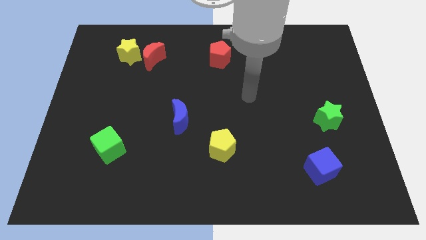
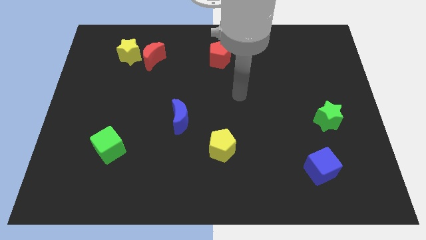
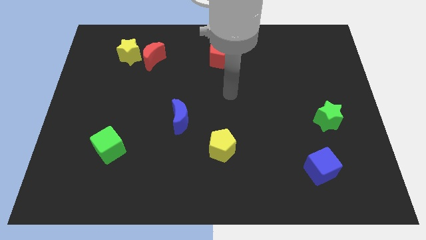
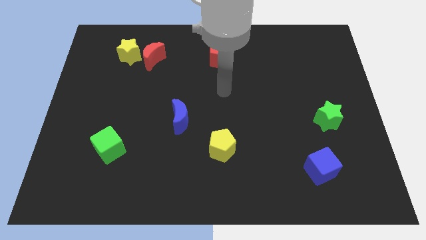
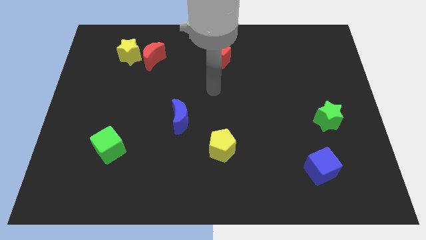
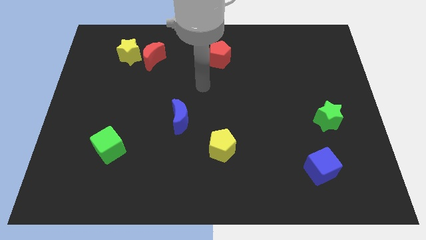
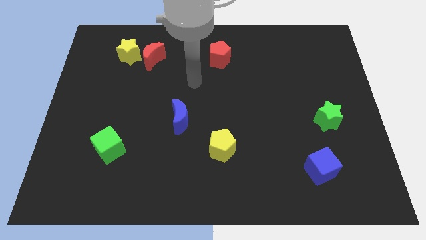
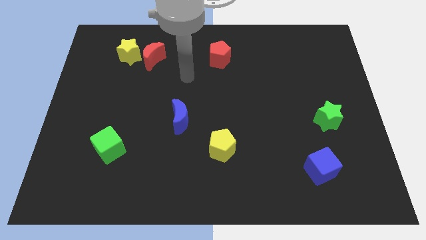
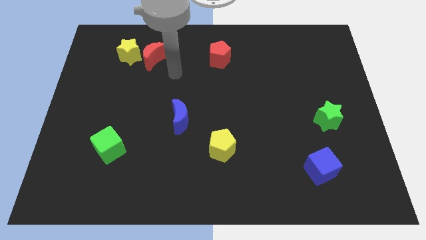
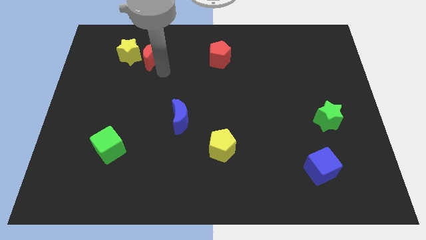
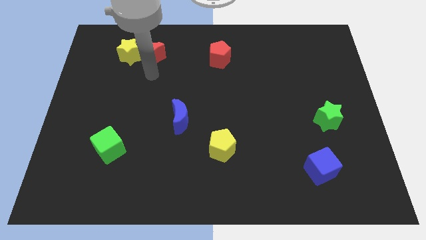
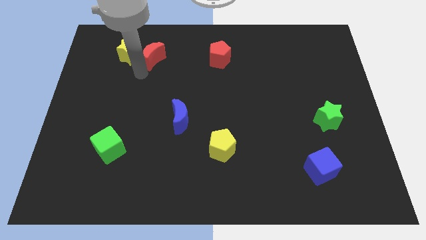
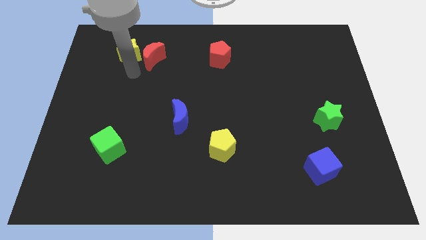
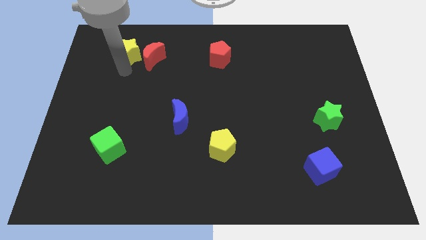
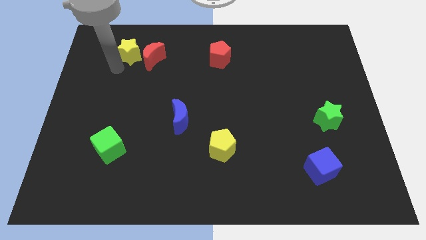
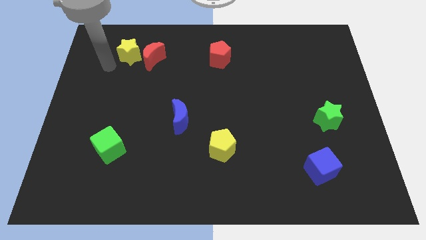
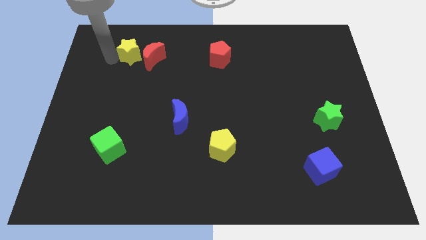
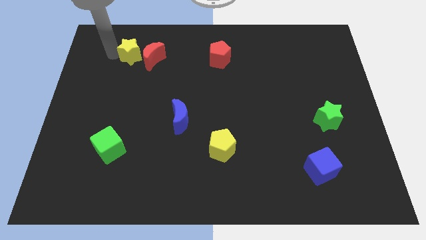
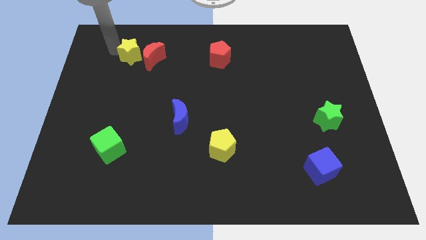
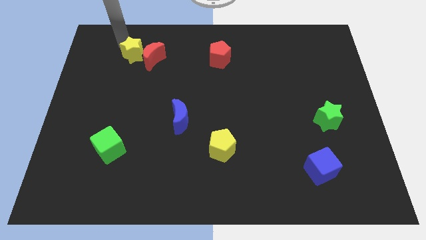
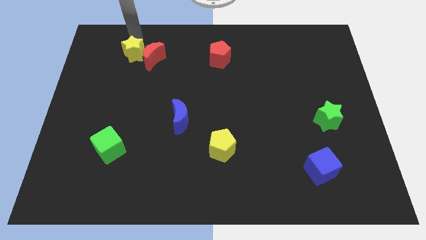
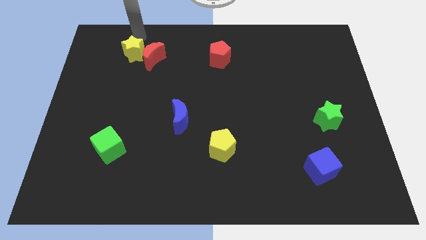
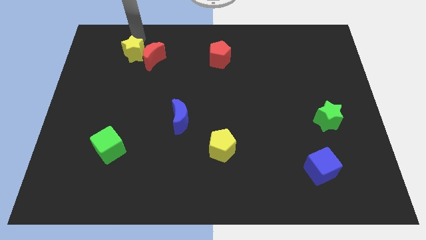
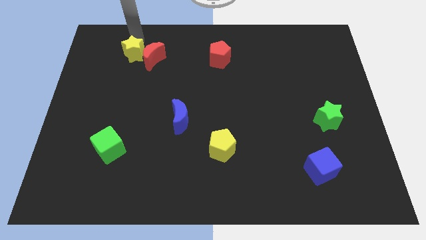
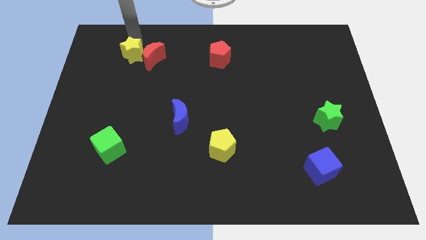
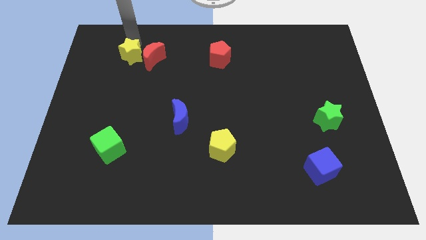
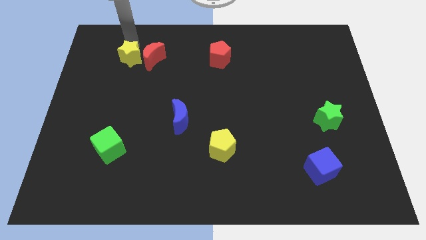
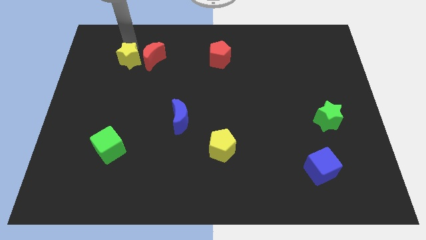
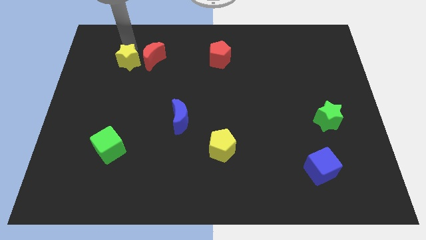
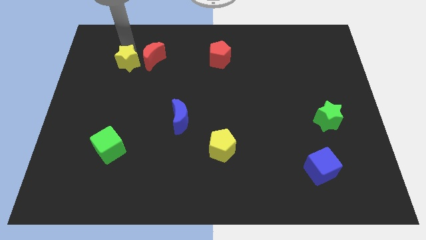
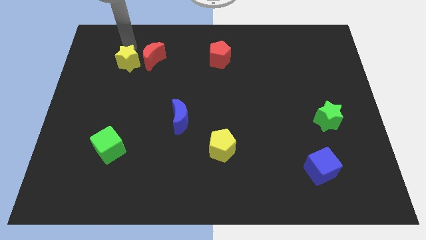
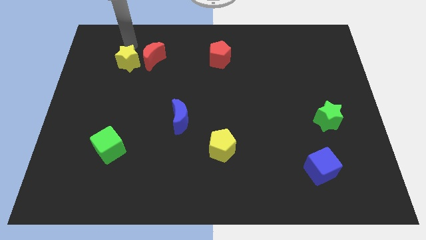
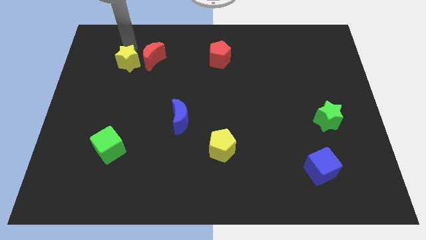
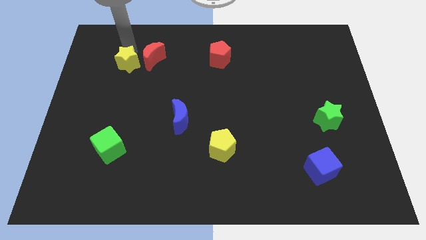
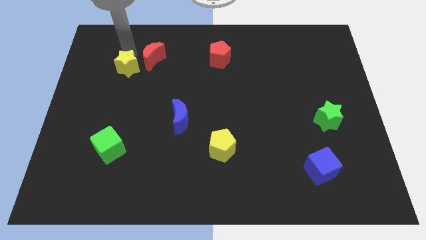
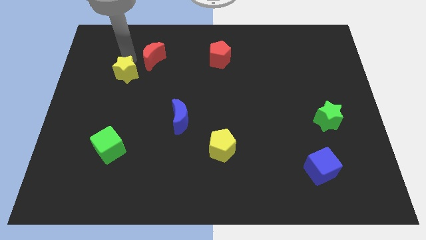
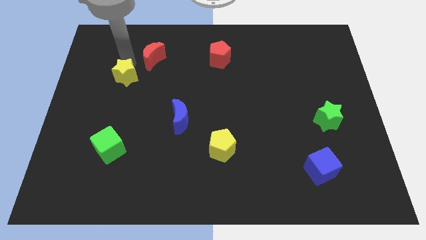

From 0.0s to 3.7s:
push the yellow star down a little bit

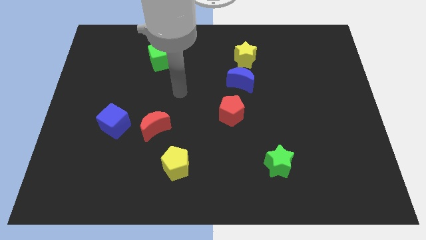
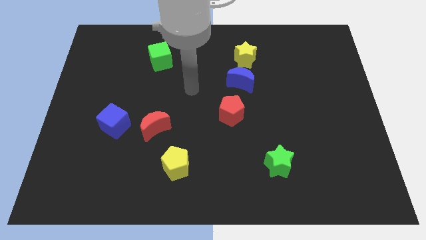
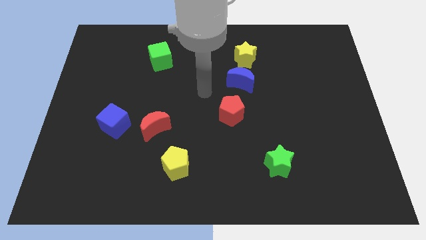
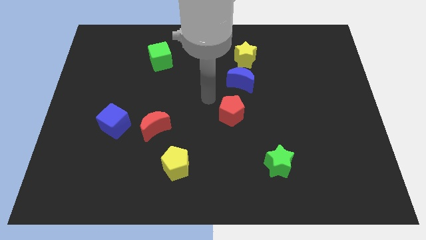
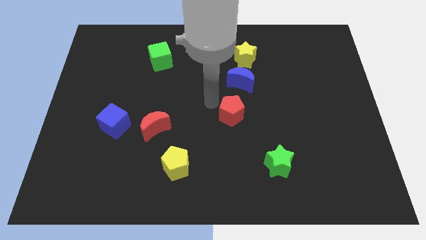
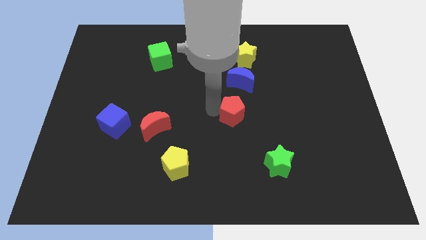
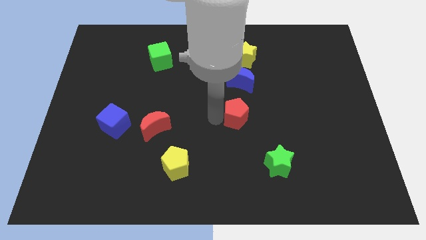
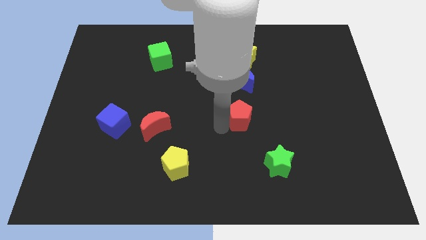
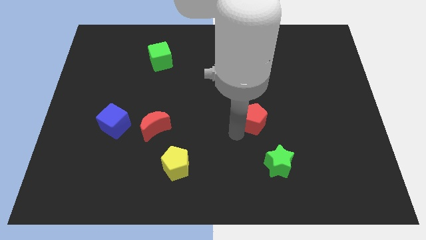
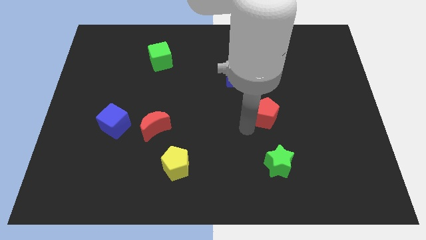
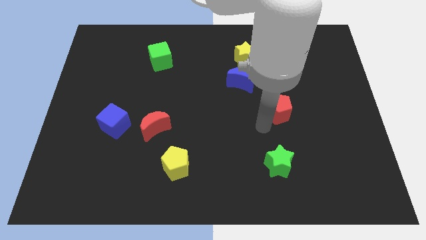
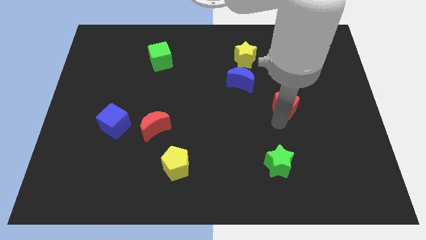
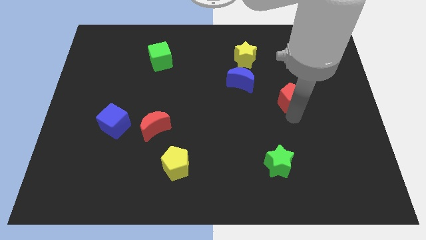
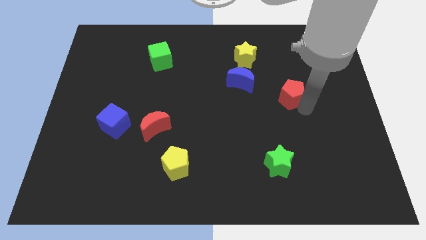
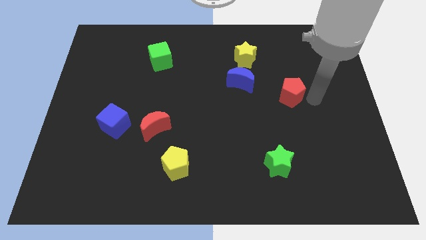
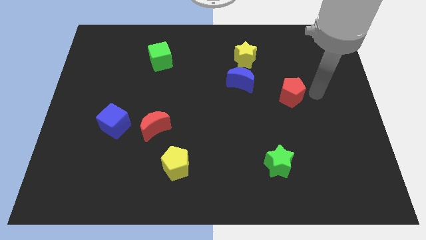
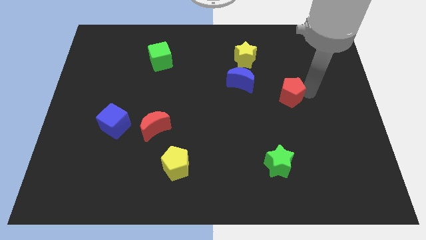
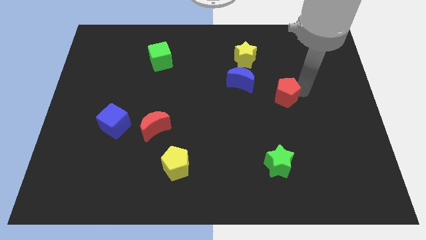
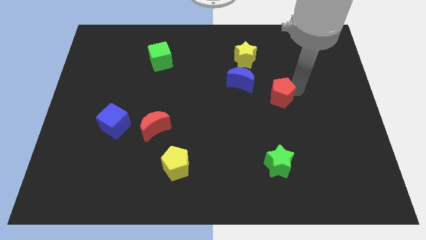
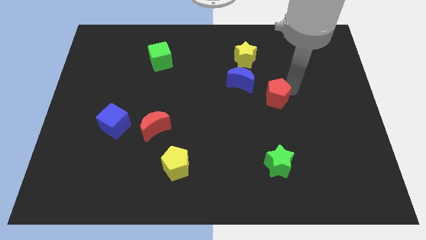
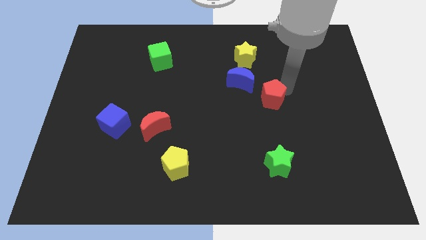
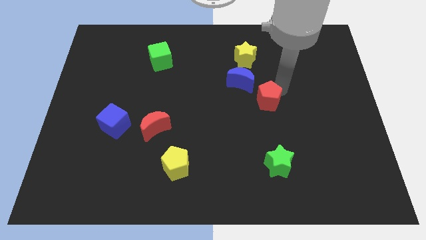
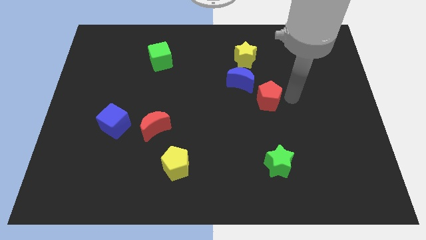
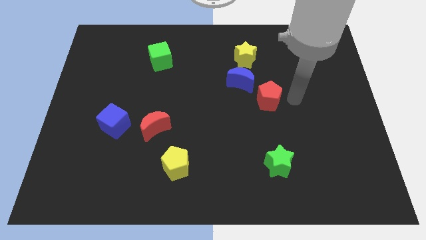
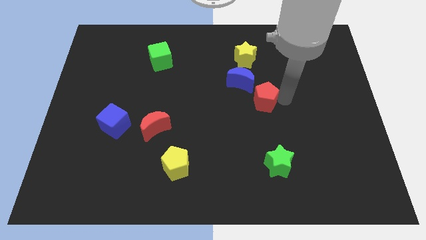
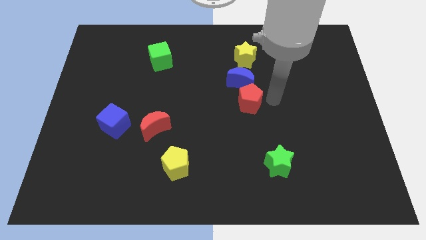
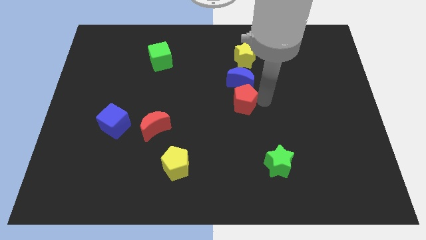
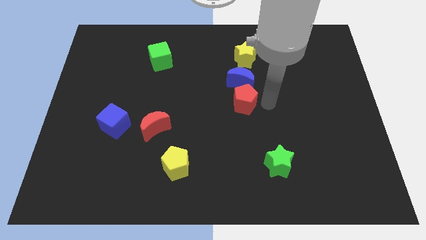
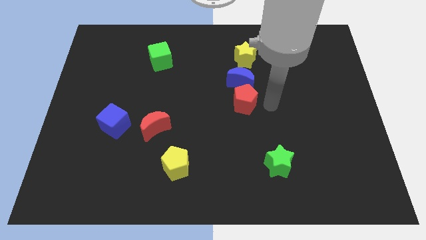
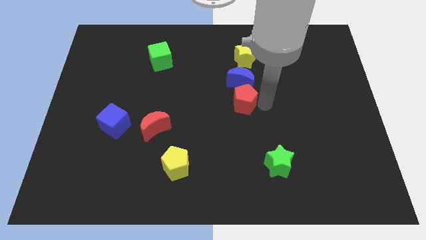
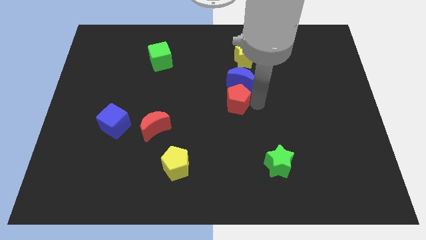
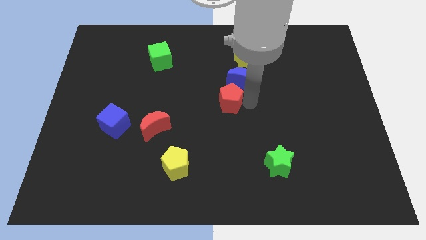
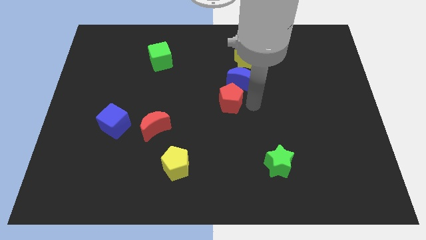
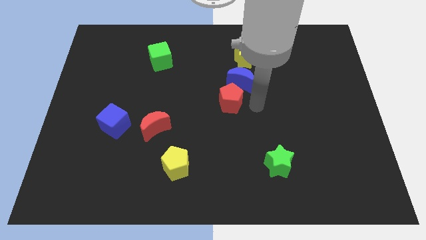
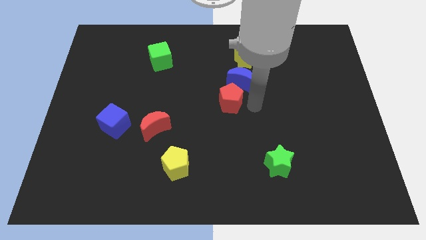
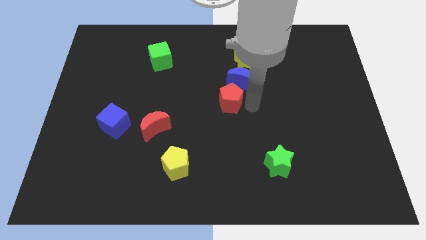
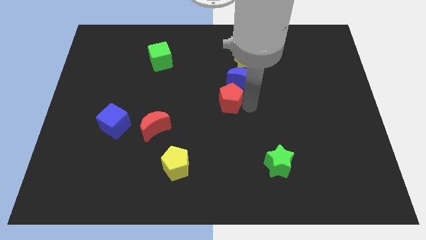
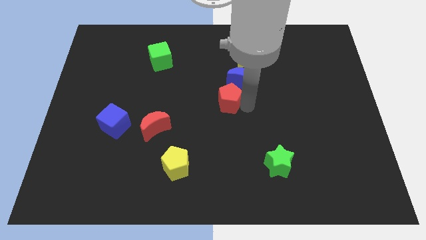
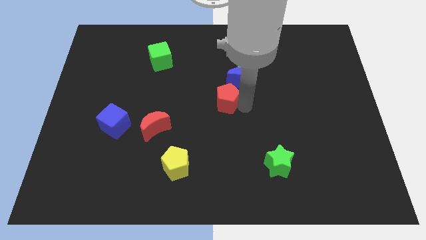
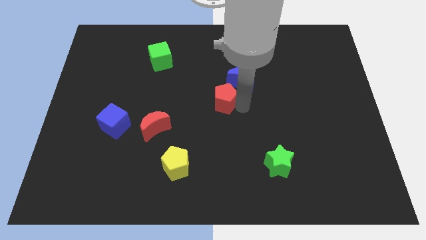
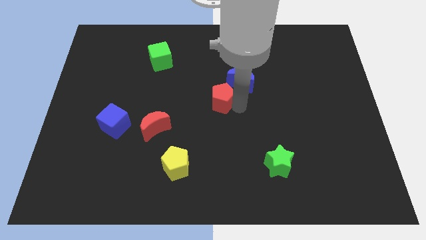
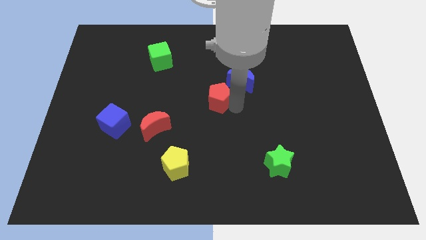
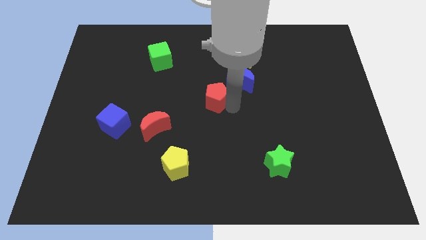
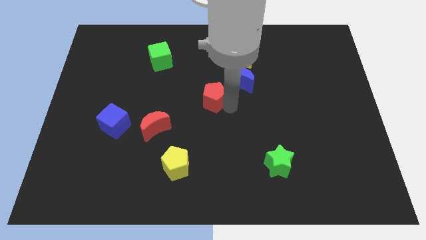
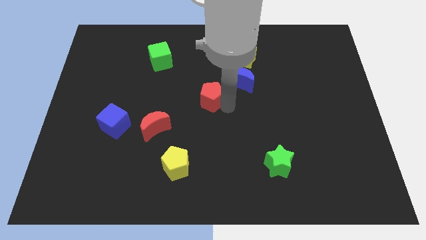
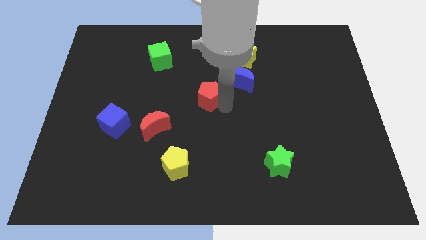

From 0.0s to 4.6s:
slide the red pentagon up and then to the left somewhat
